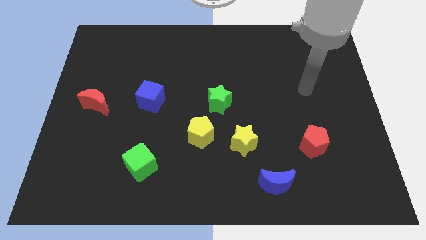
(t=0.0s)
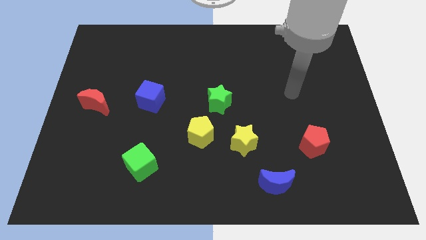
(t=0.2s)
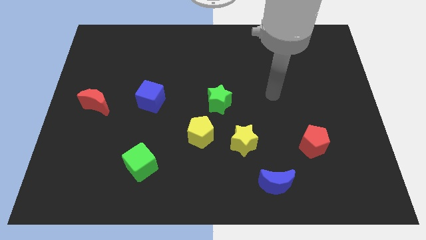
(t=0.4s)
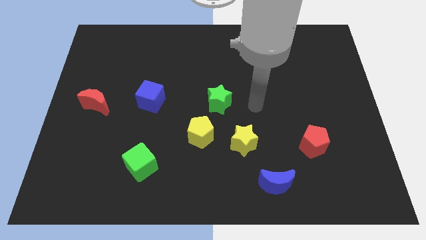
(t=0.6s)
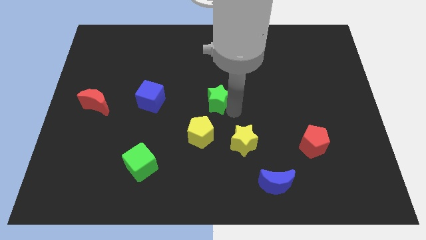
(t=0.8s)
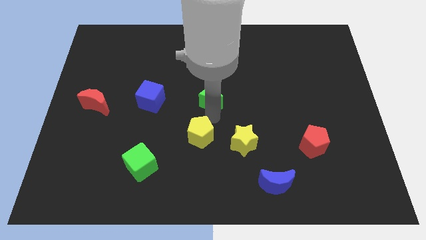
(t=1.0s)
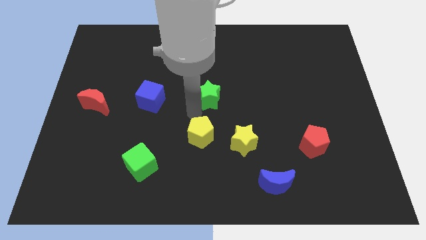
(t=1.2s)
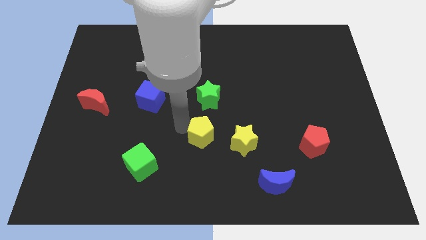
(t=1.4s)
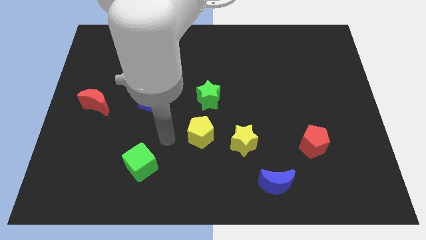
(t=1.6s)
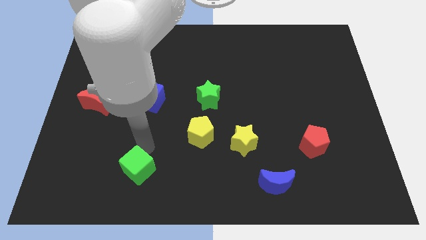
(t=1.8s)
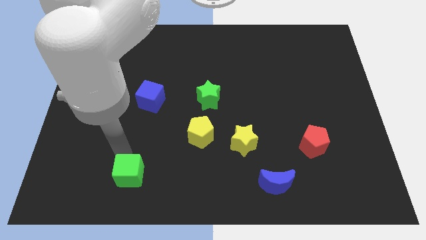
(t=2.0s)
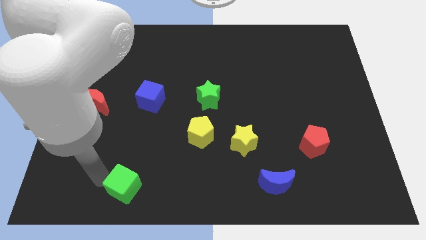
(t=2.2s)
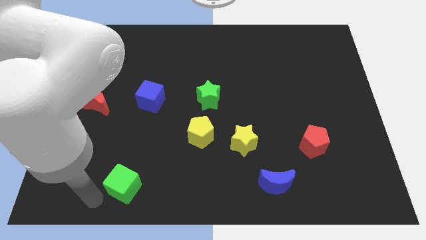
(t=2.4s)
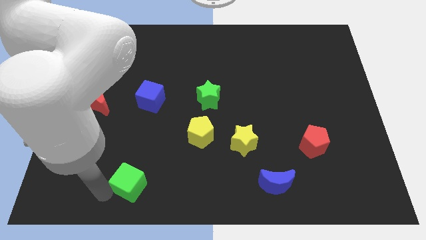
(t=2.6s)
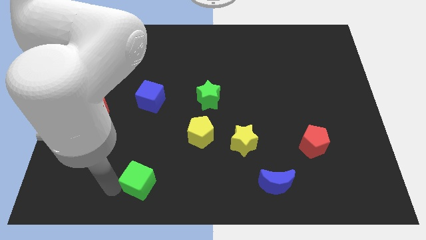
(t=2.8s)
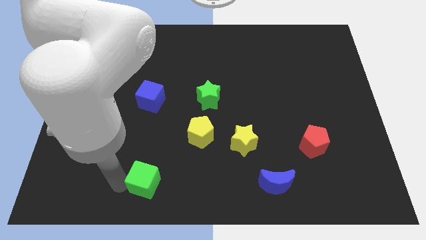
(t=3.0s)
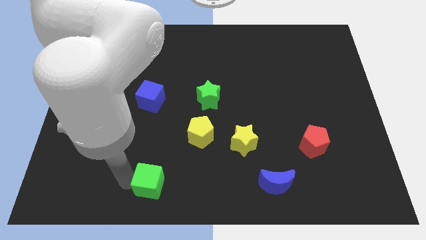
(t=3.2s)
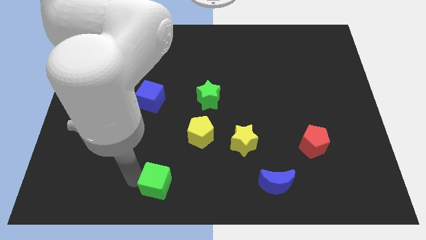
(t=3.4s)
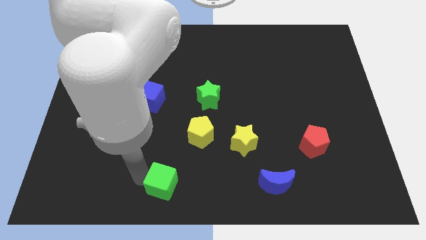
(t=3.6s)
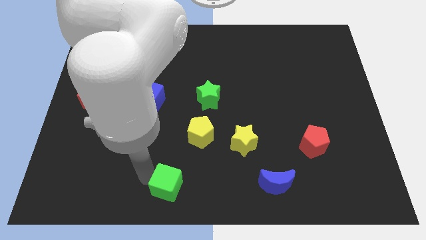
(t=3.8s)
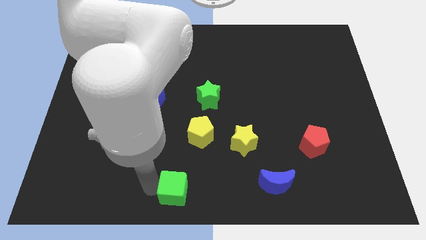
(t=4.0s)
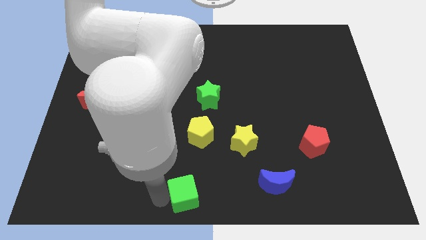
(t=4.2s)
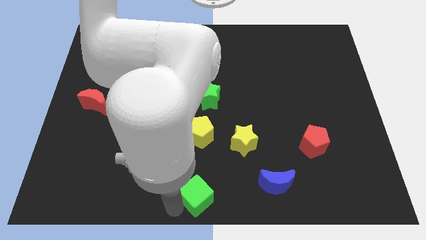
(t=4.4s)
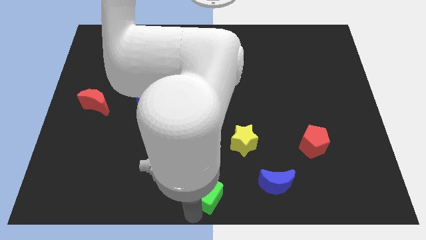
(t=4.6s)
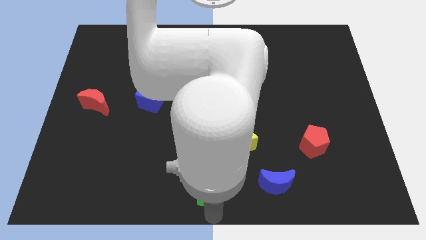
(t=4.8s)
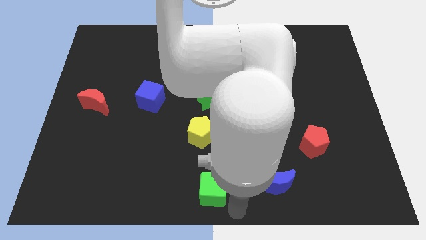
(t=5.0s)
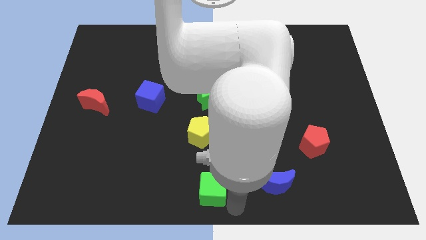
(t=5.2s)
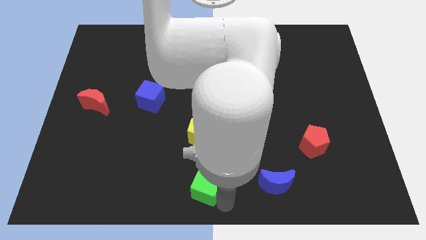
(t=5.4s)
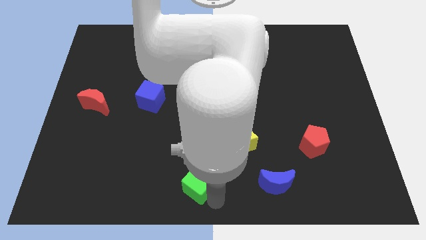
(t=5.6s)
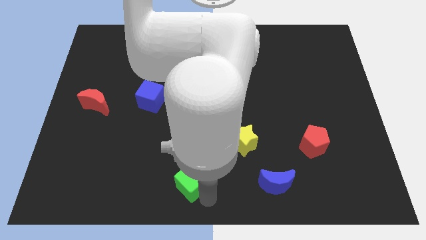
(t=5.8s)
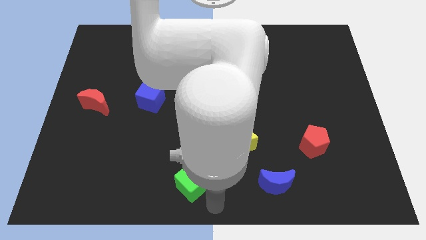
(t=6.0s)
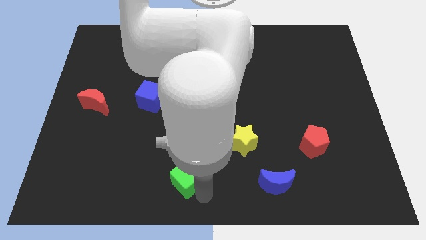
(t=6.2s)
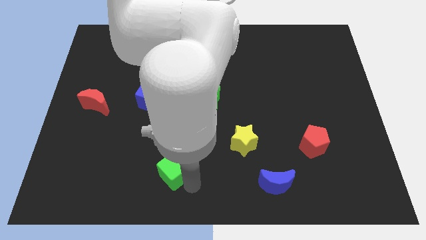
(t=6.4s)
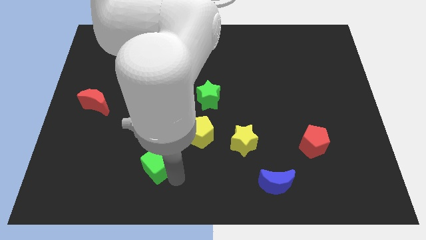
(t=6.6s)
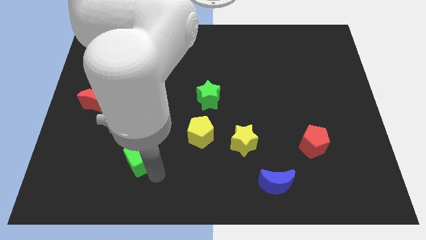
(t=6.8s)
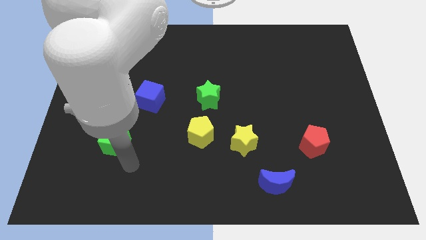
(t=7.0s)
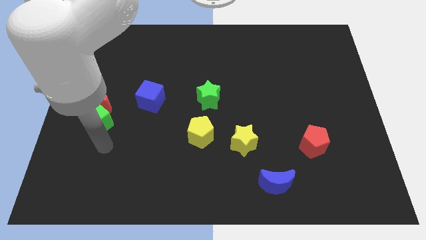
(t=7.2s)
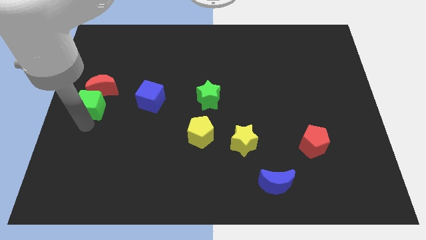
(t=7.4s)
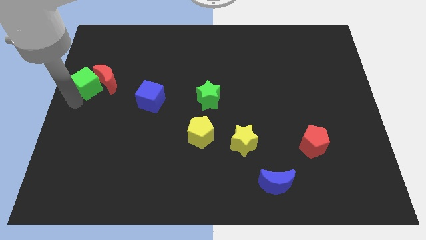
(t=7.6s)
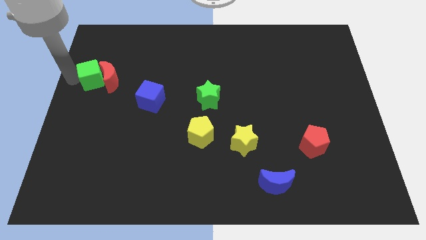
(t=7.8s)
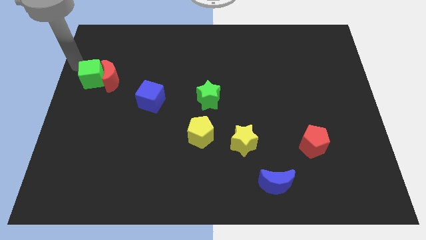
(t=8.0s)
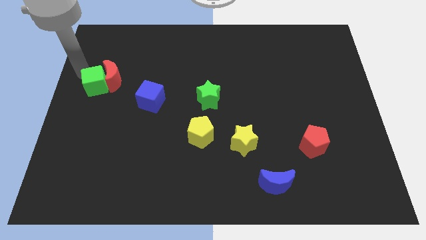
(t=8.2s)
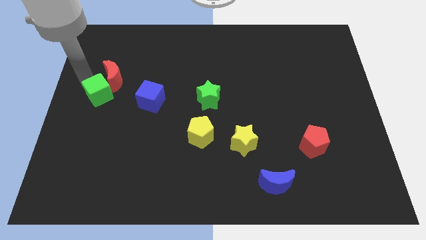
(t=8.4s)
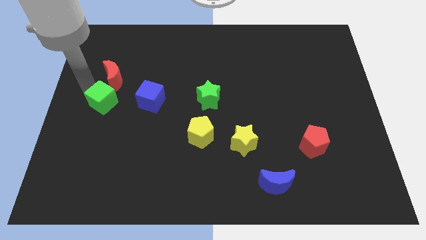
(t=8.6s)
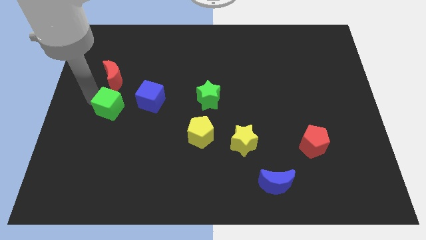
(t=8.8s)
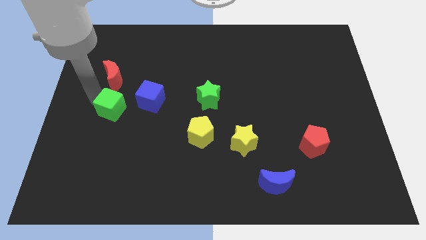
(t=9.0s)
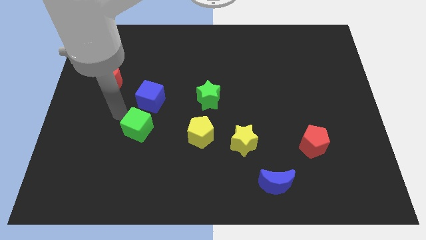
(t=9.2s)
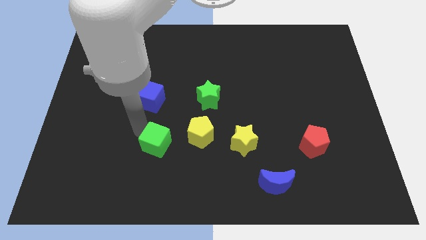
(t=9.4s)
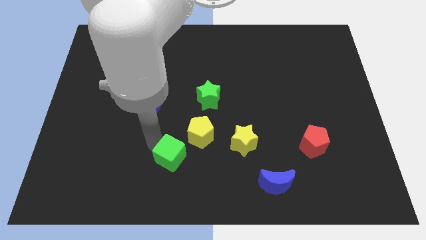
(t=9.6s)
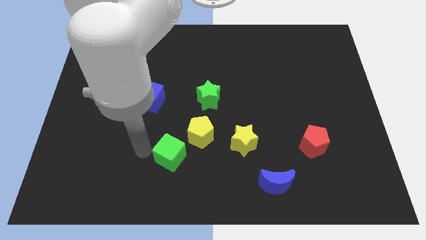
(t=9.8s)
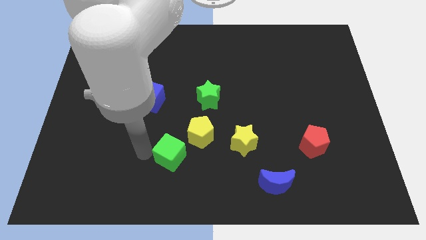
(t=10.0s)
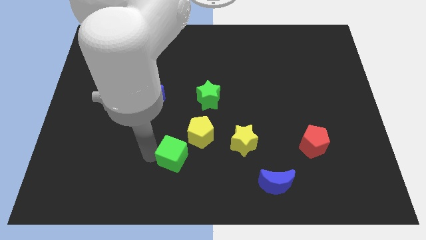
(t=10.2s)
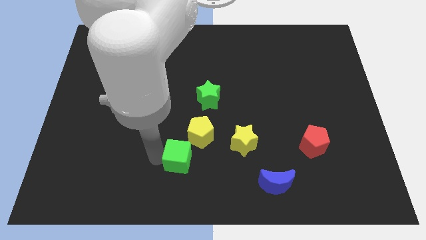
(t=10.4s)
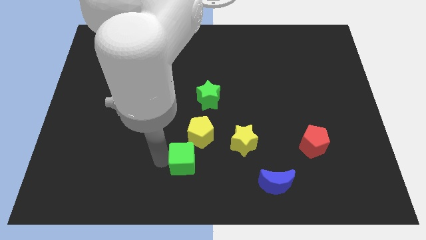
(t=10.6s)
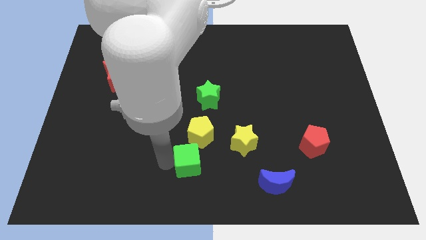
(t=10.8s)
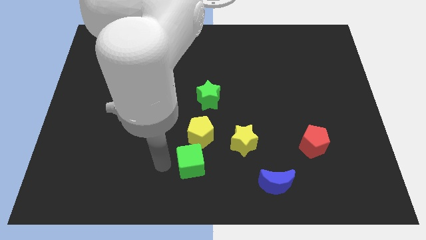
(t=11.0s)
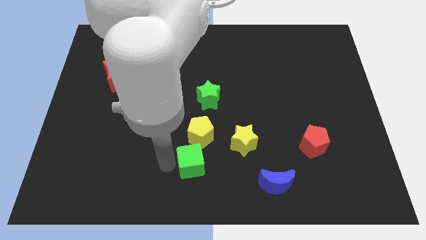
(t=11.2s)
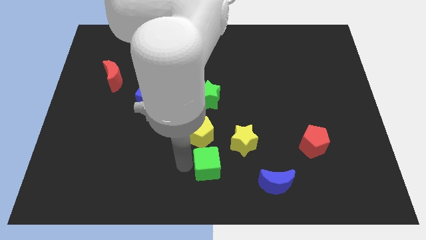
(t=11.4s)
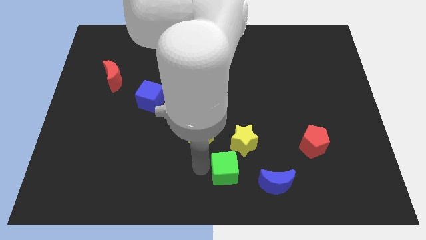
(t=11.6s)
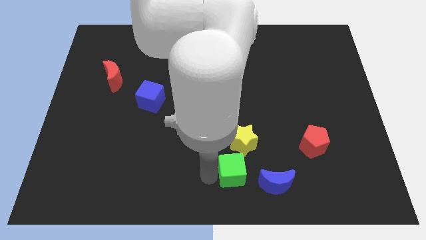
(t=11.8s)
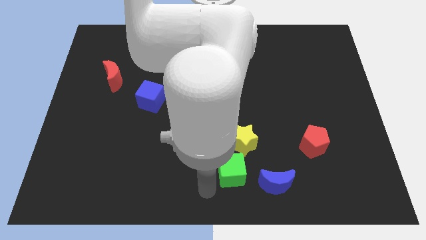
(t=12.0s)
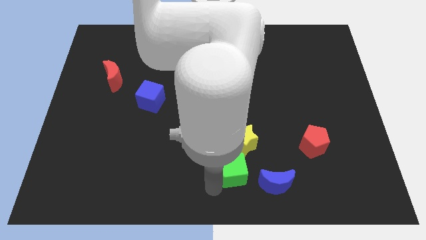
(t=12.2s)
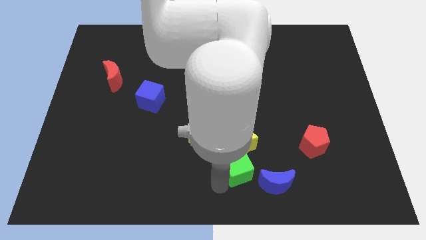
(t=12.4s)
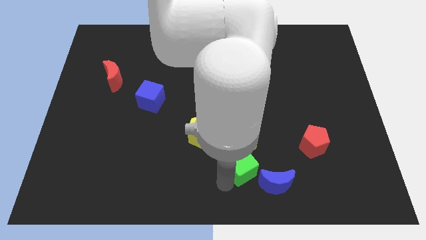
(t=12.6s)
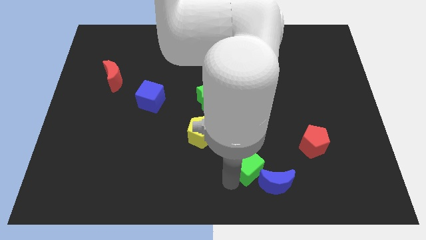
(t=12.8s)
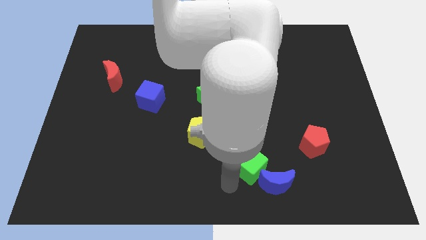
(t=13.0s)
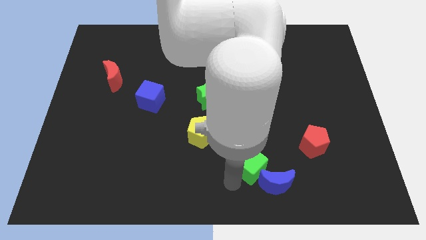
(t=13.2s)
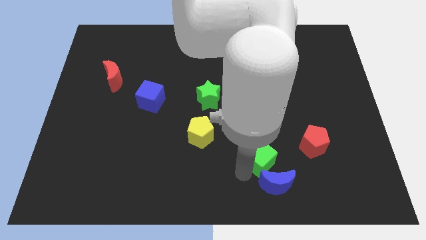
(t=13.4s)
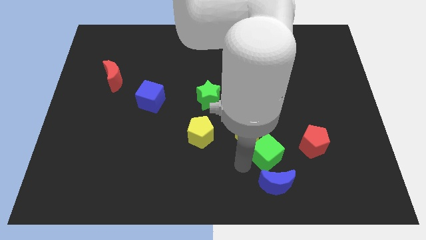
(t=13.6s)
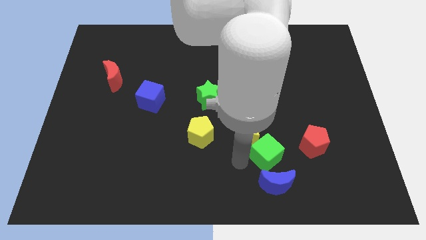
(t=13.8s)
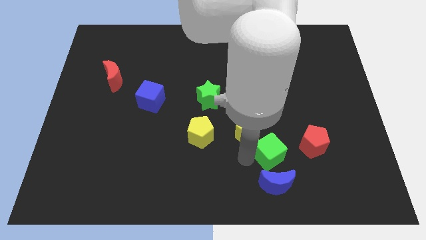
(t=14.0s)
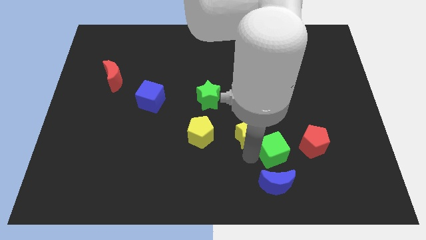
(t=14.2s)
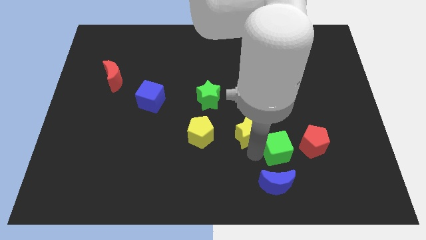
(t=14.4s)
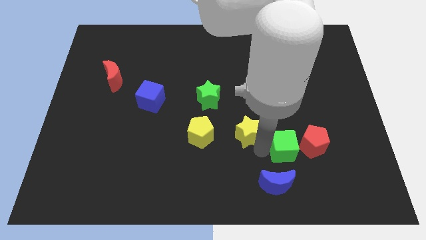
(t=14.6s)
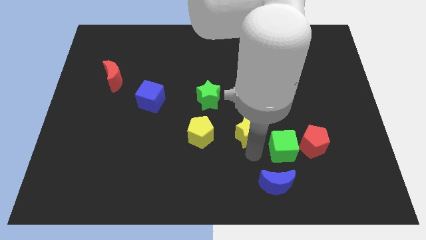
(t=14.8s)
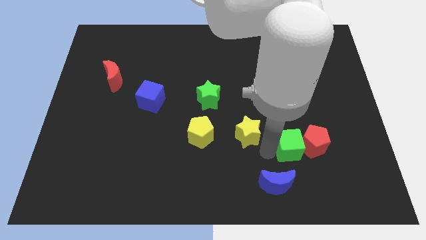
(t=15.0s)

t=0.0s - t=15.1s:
put the green cube to the red pentagon

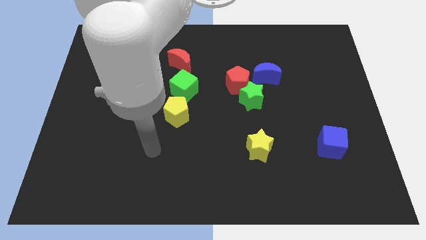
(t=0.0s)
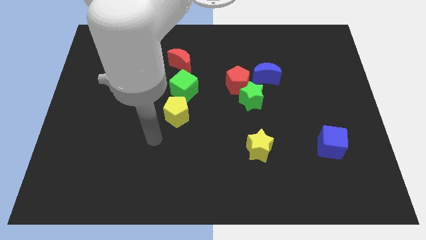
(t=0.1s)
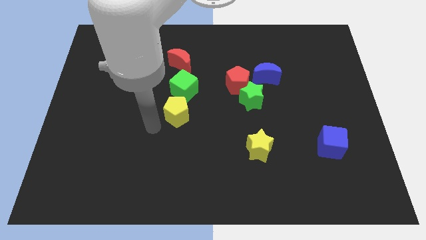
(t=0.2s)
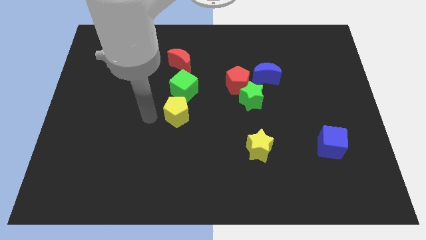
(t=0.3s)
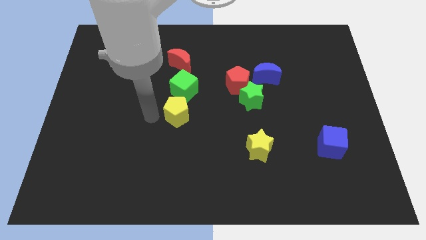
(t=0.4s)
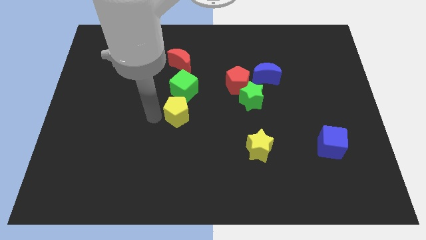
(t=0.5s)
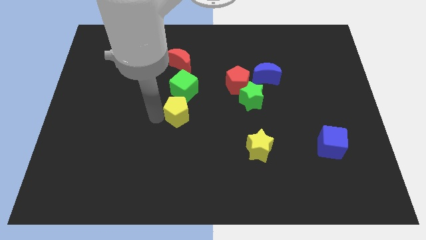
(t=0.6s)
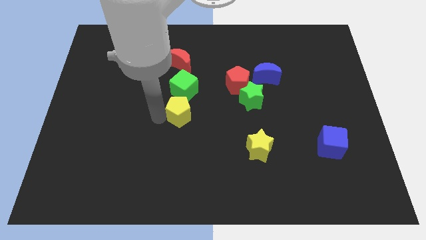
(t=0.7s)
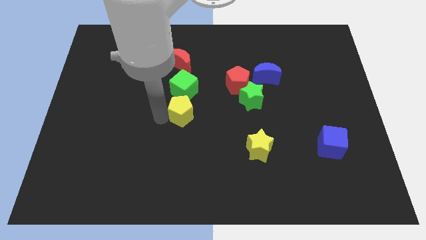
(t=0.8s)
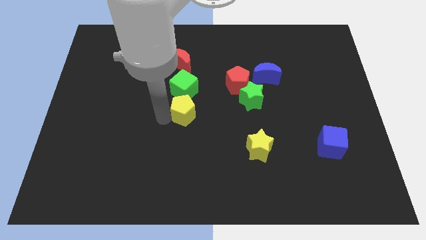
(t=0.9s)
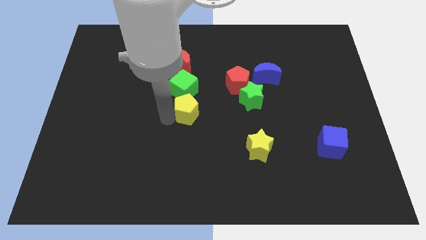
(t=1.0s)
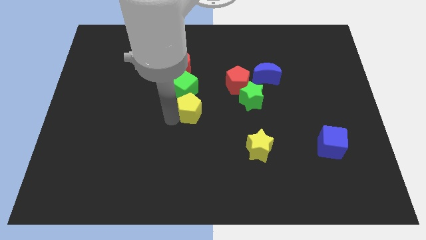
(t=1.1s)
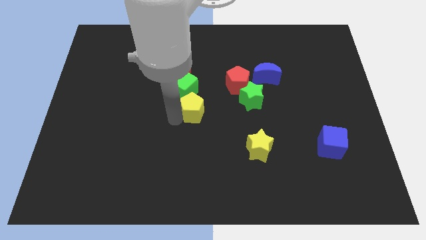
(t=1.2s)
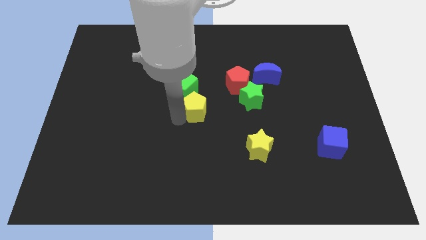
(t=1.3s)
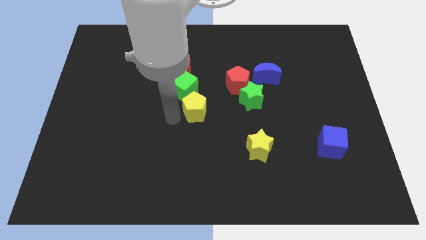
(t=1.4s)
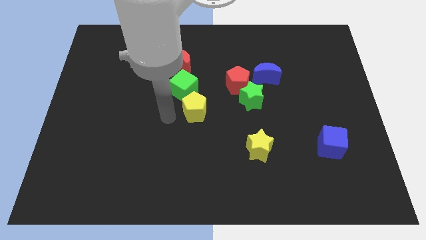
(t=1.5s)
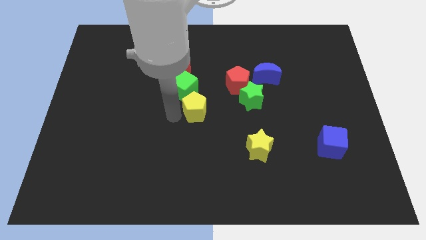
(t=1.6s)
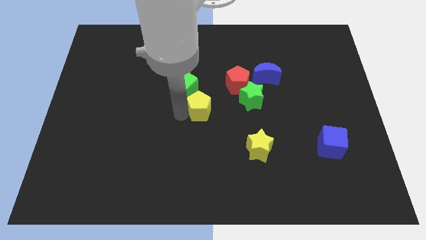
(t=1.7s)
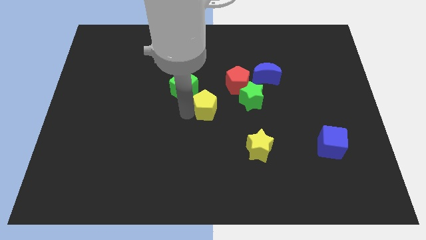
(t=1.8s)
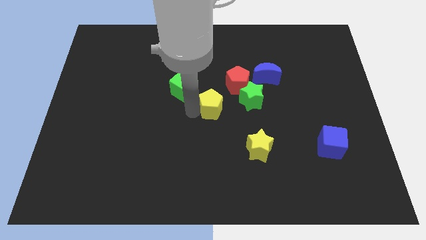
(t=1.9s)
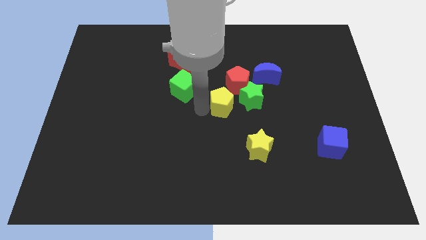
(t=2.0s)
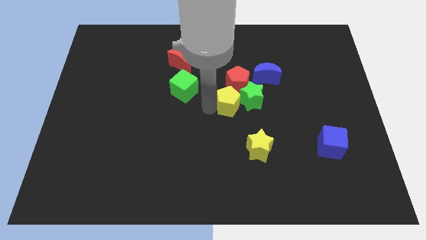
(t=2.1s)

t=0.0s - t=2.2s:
slide the yellow pentagon to the green star
